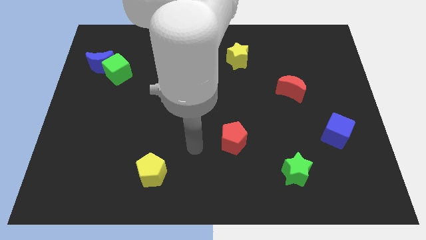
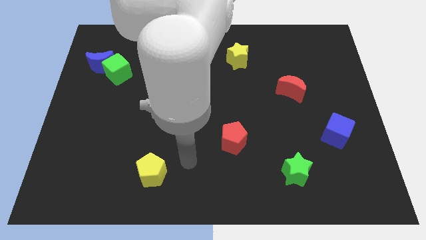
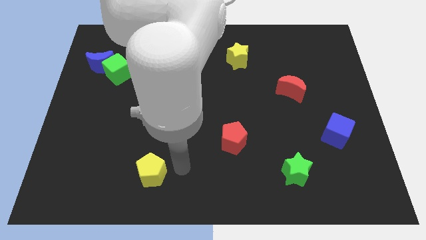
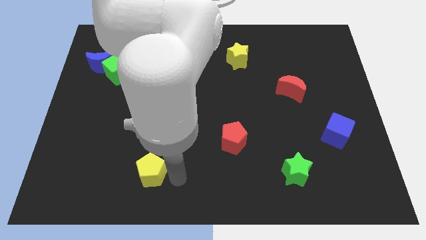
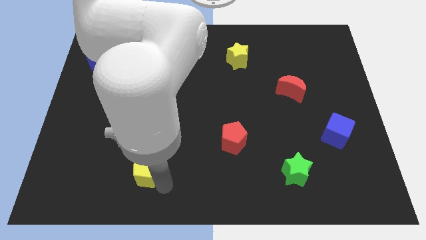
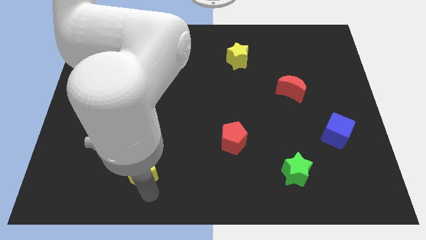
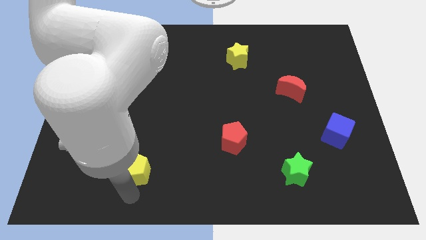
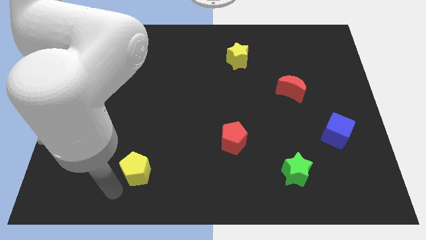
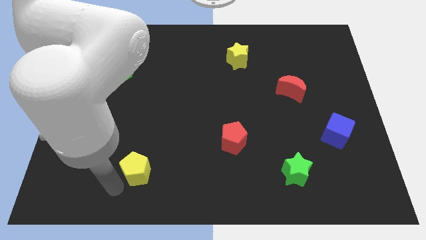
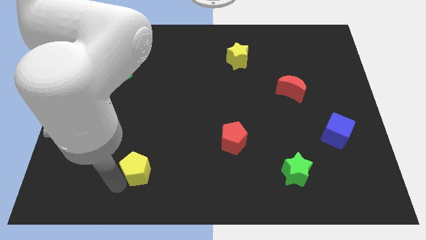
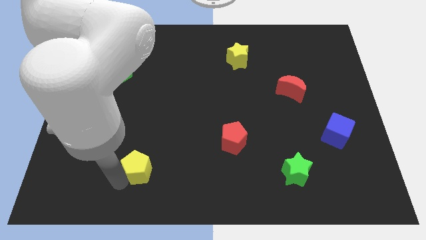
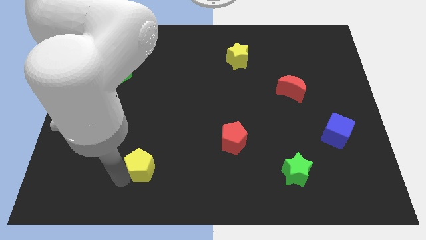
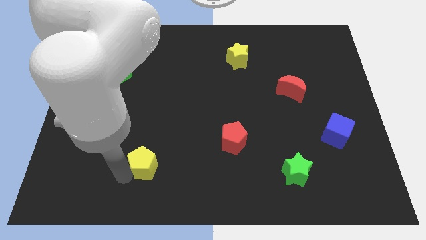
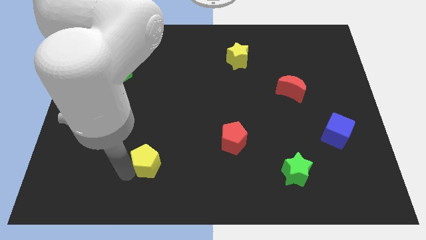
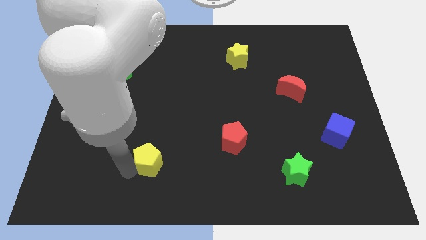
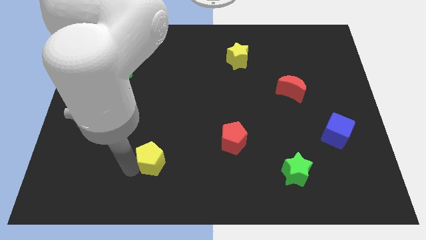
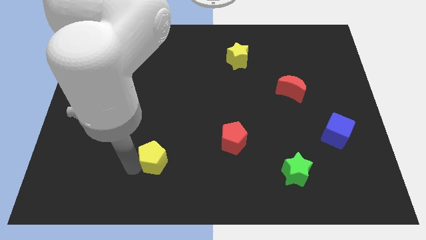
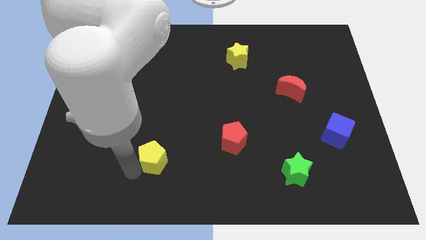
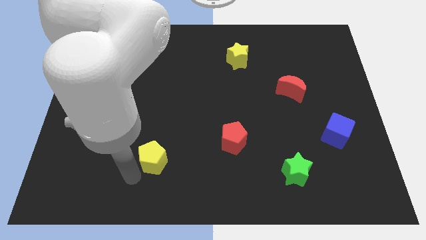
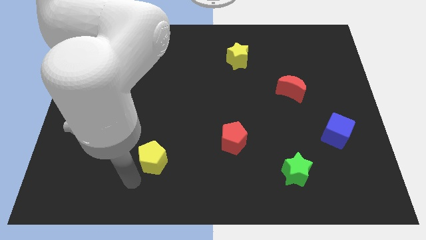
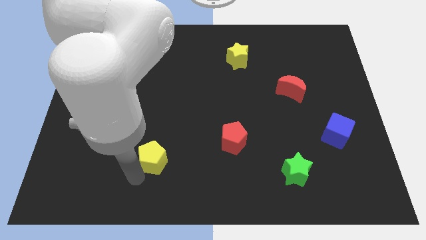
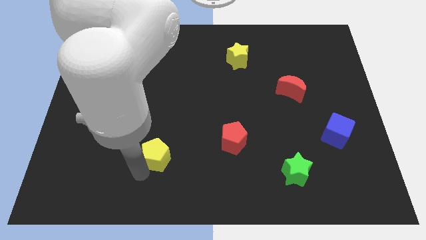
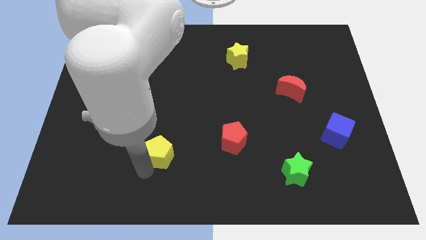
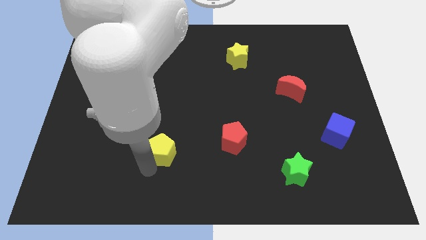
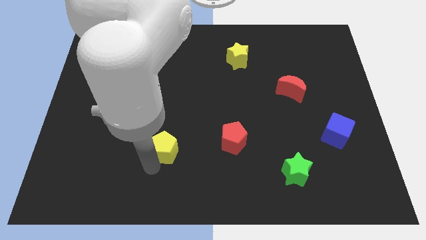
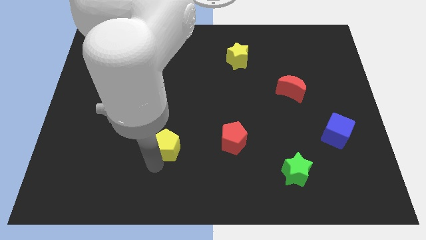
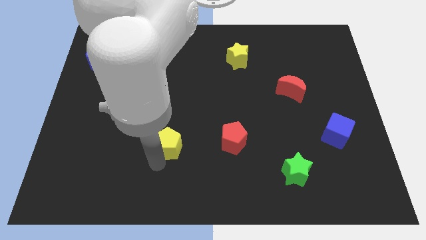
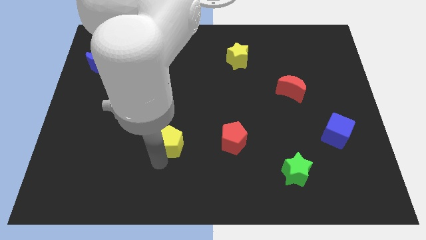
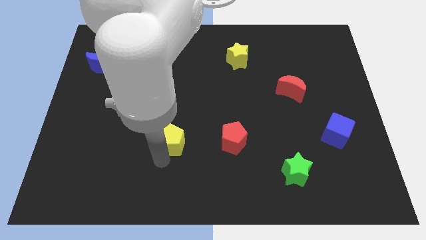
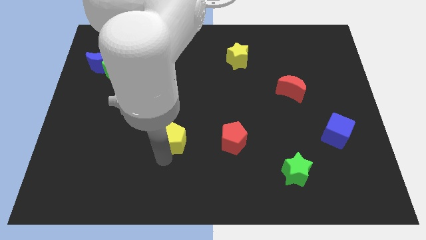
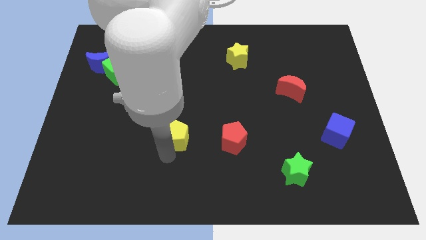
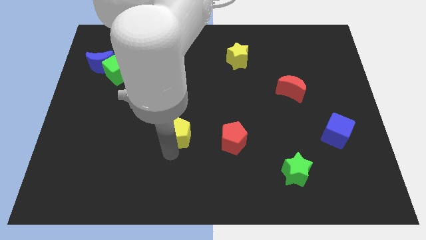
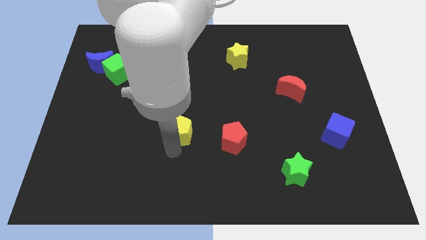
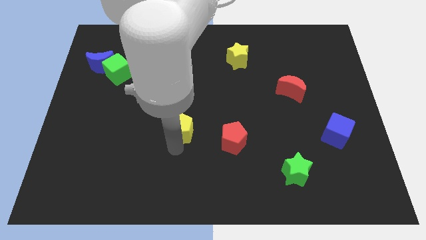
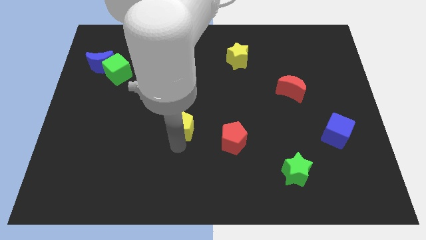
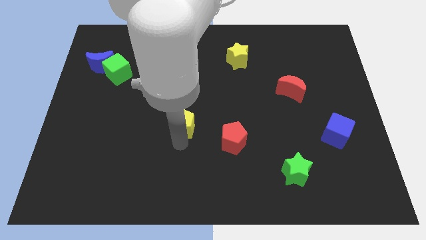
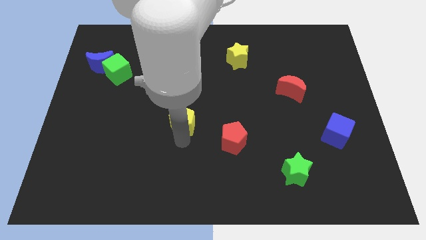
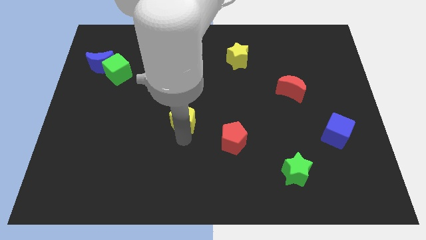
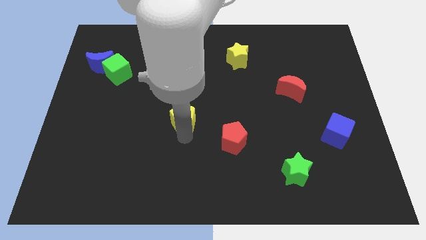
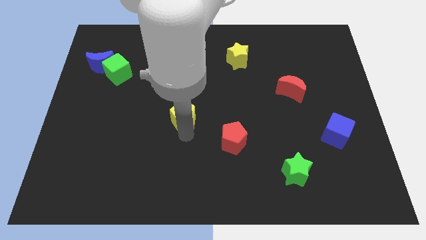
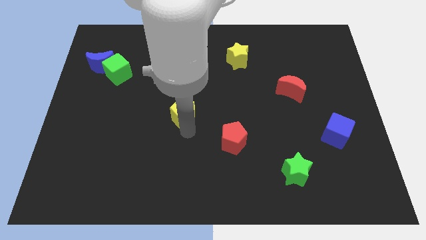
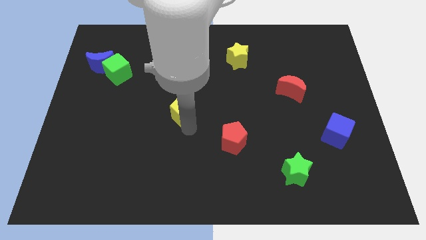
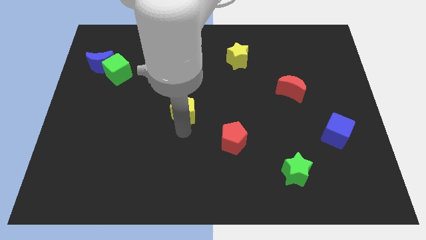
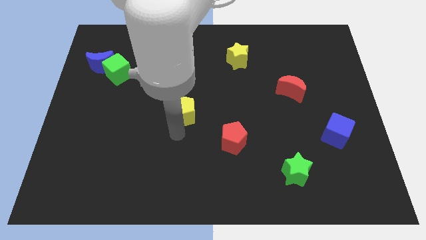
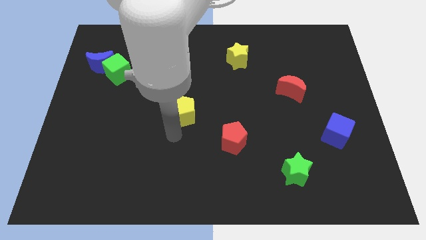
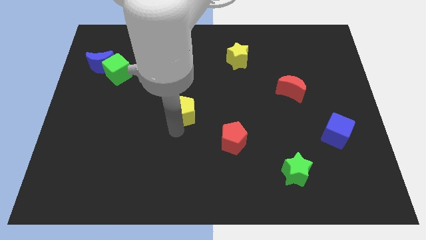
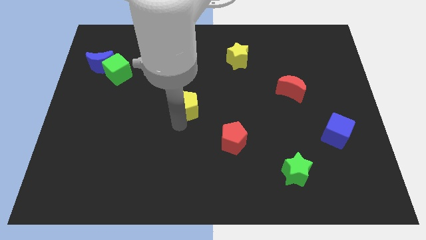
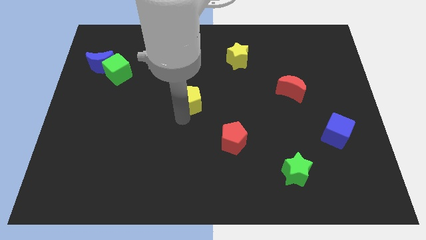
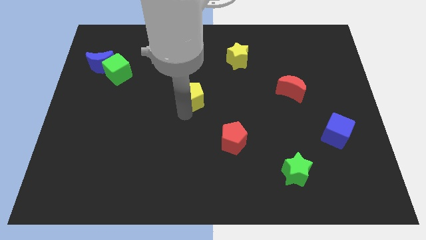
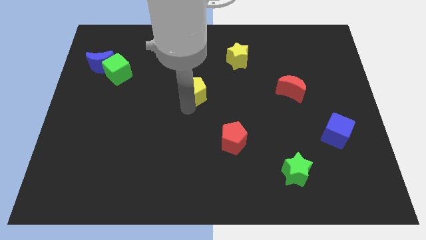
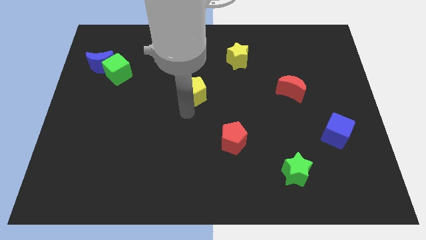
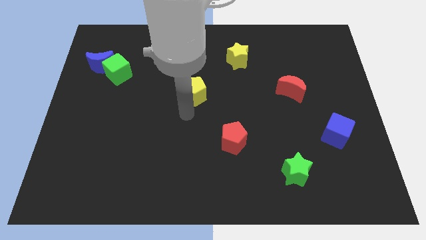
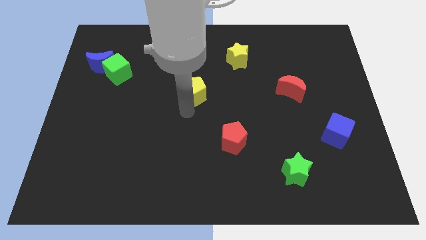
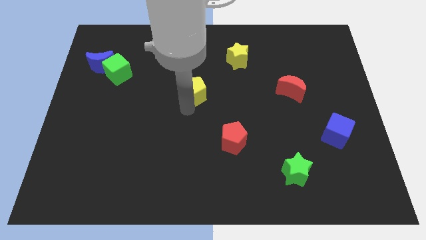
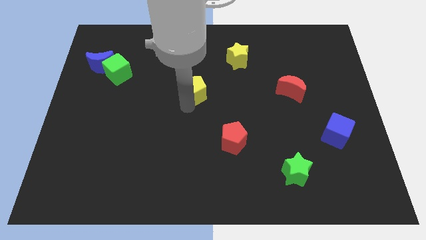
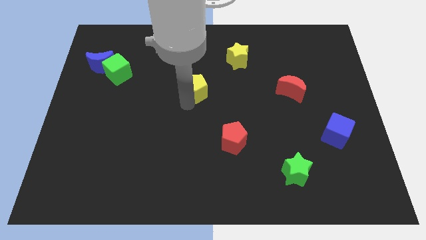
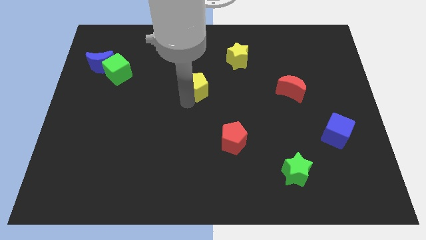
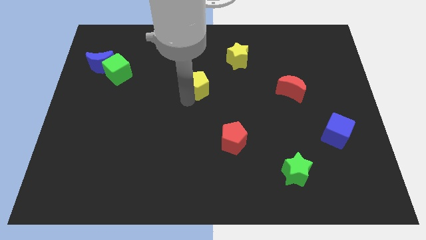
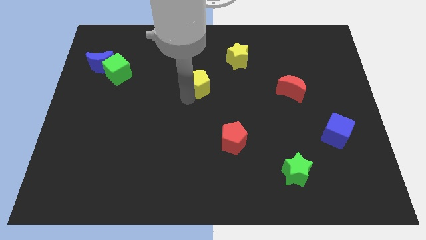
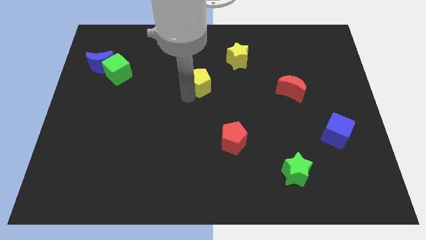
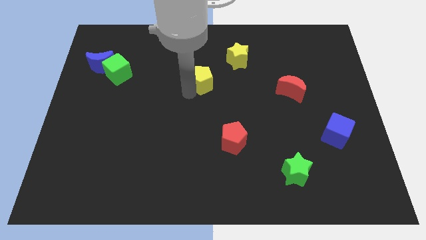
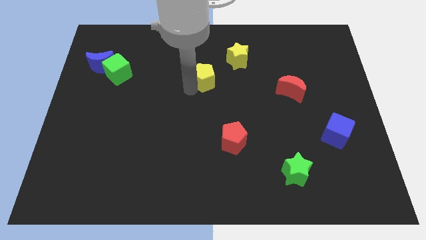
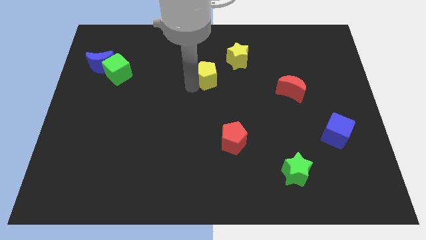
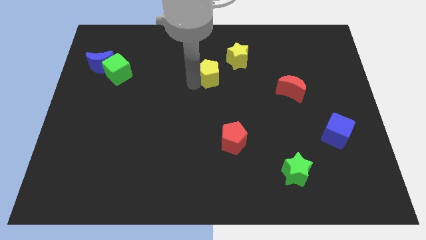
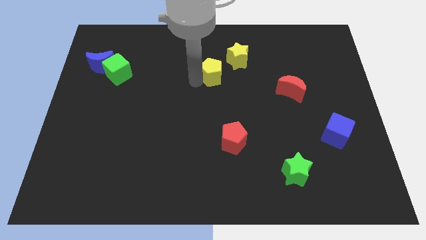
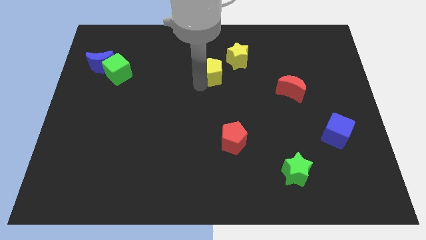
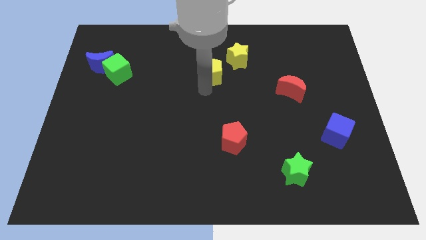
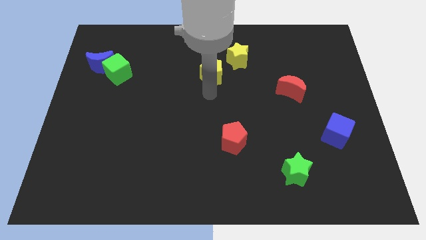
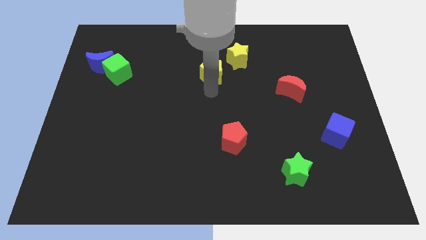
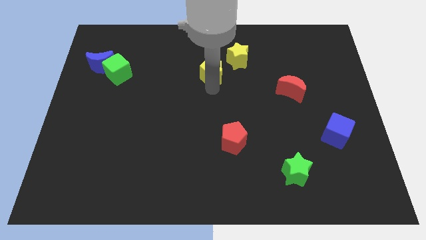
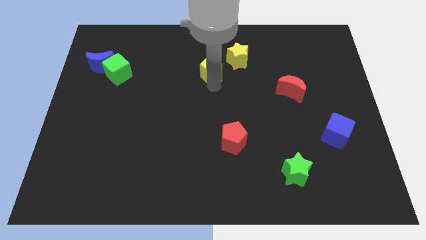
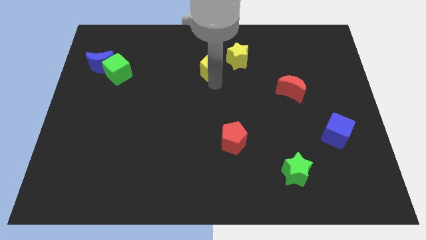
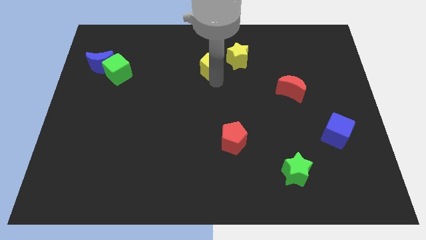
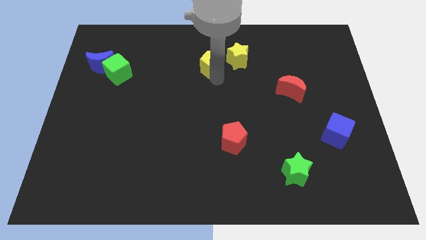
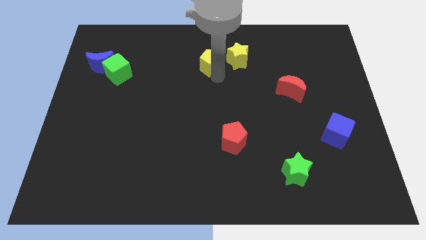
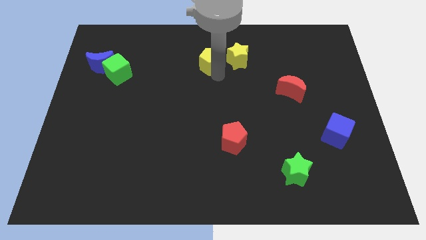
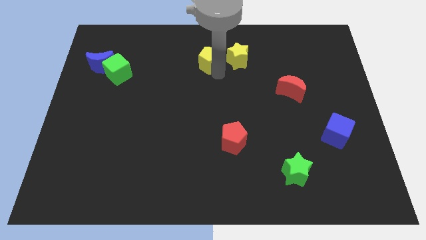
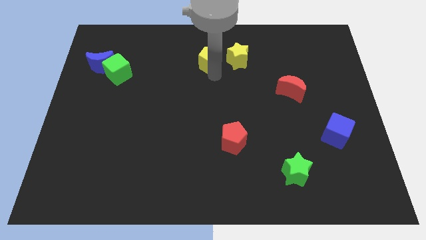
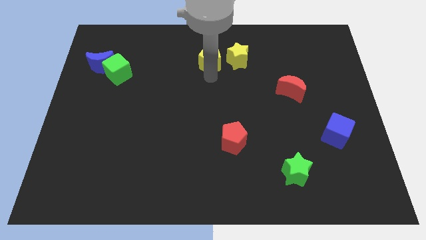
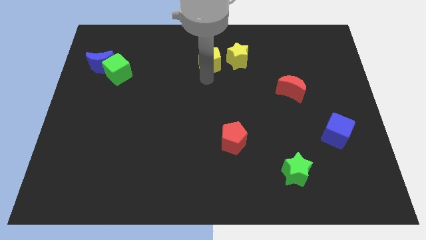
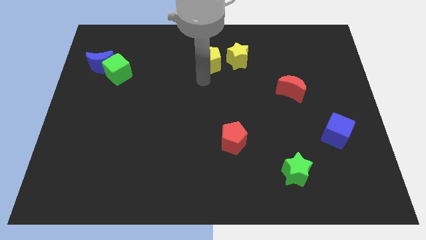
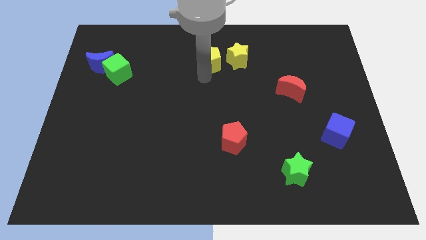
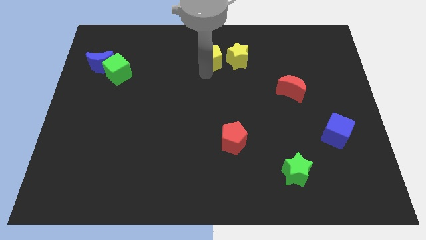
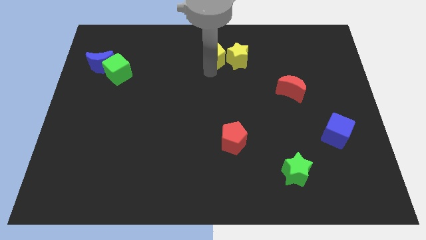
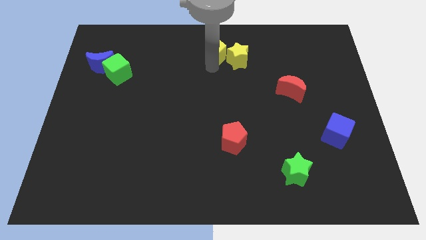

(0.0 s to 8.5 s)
move the yellow pentagon to the top
